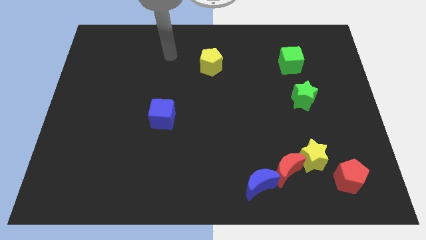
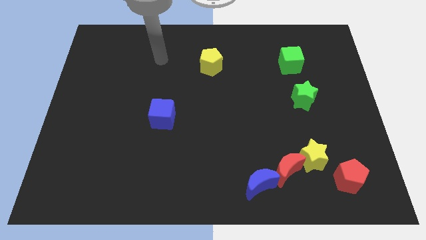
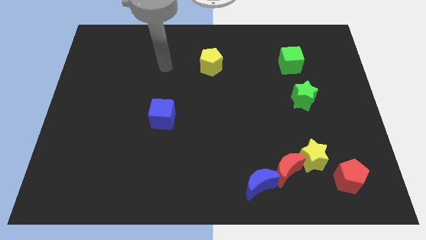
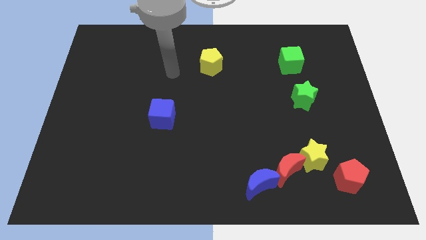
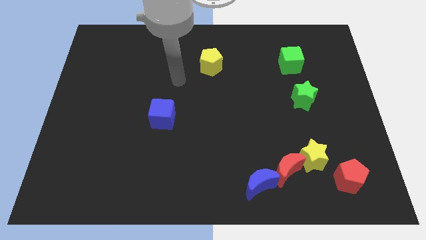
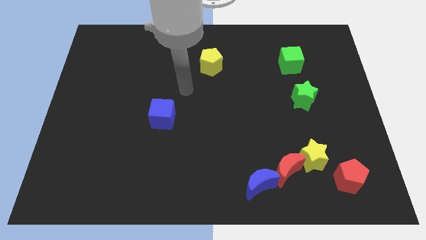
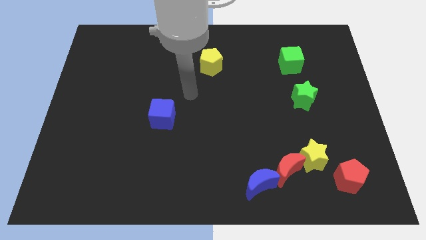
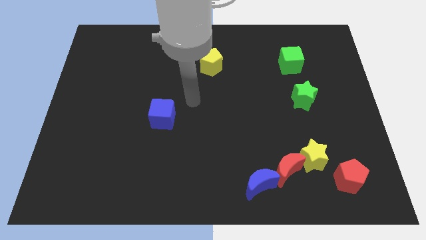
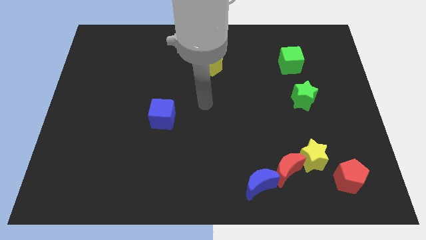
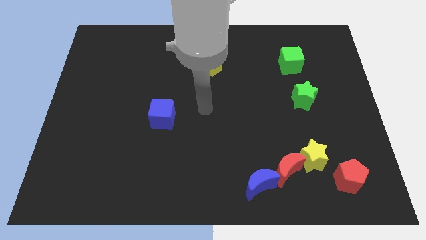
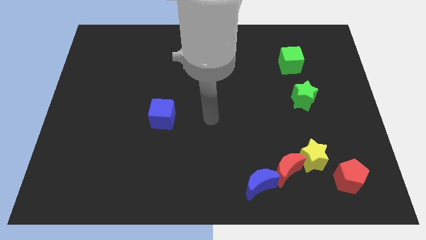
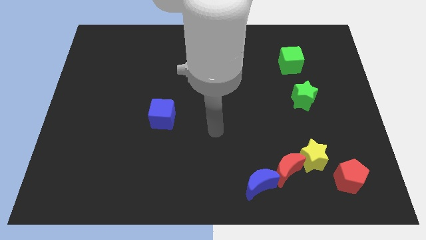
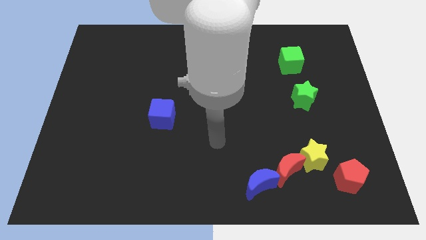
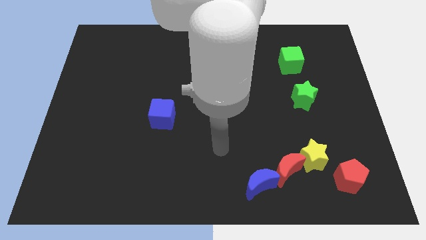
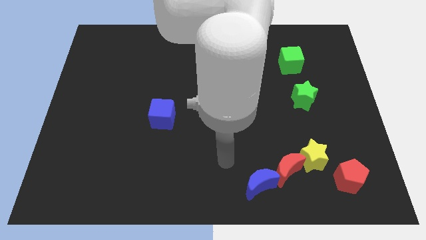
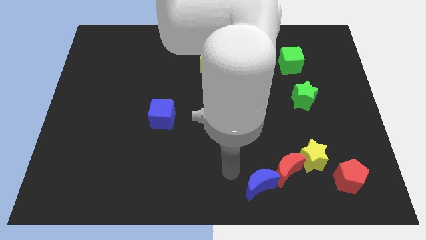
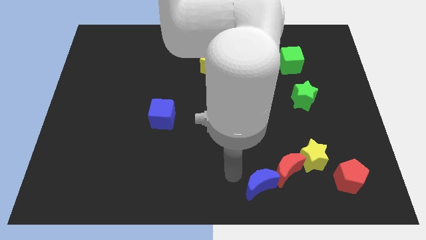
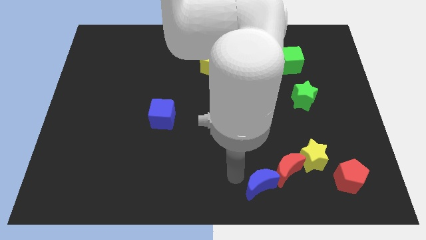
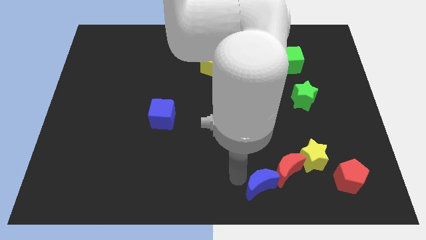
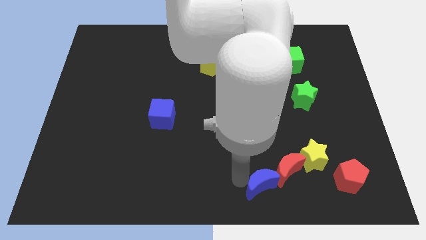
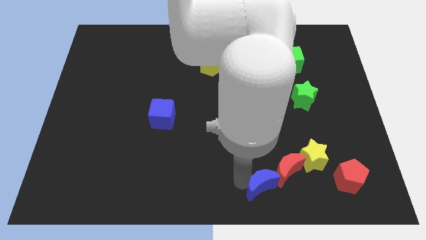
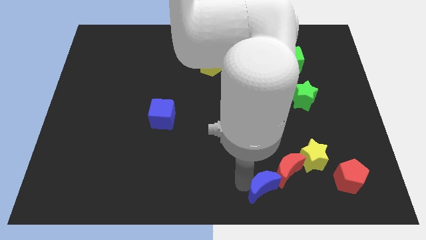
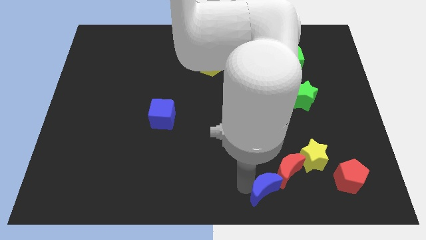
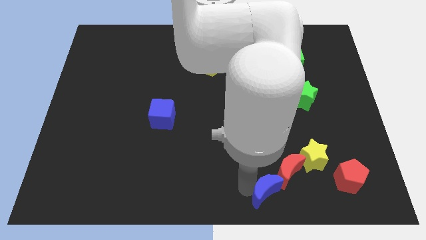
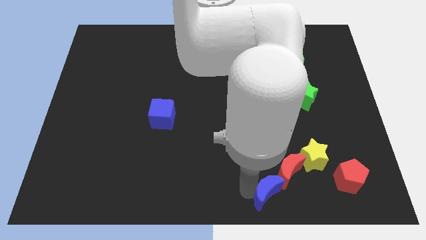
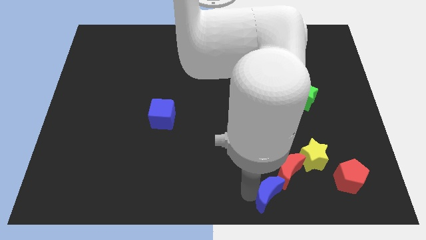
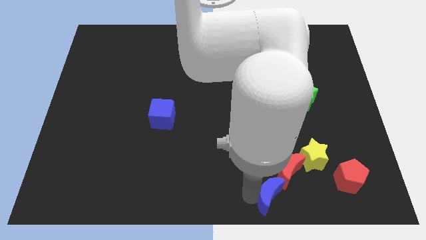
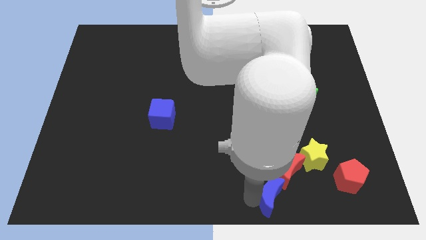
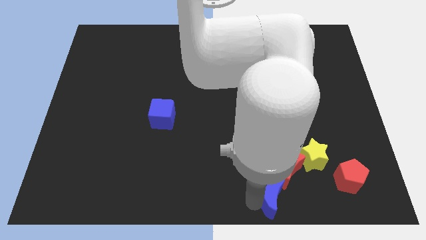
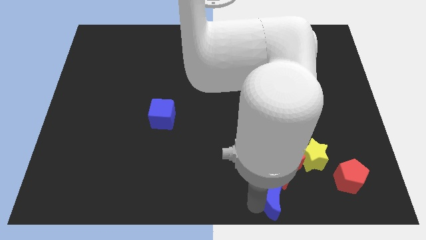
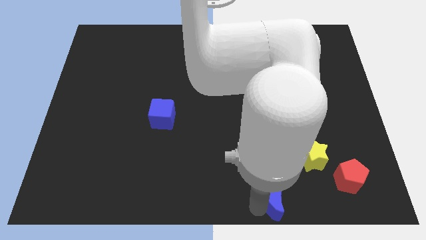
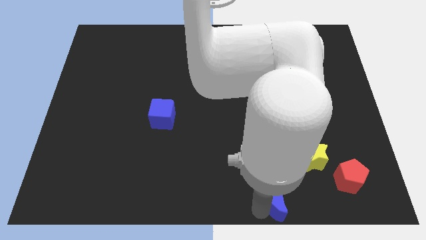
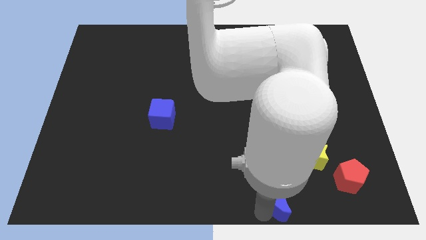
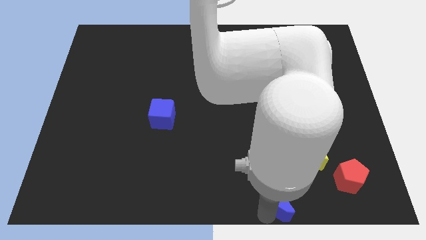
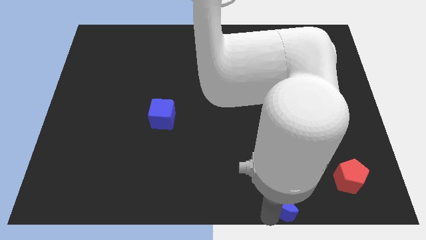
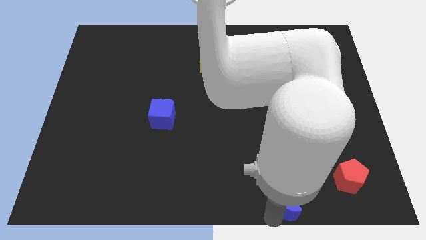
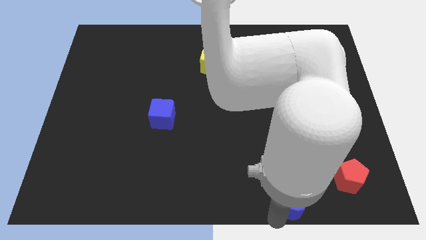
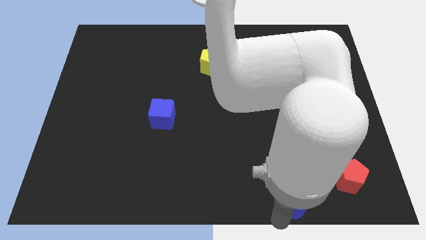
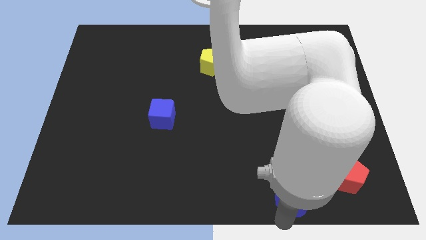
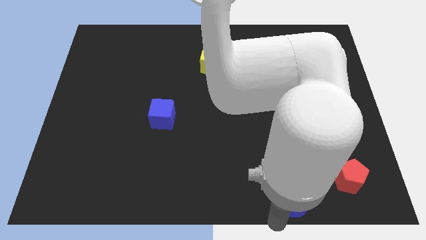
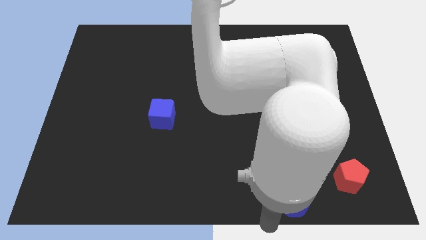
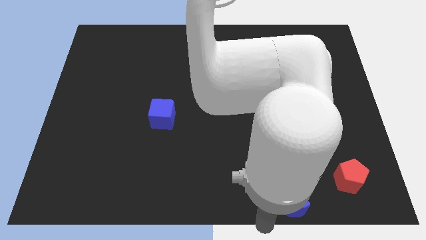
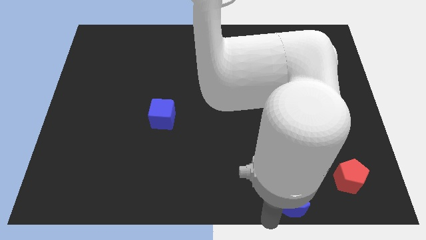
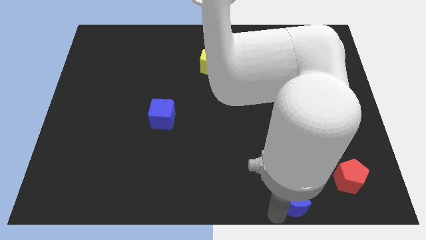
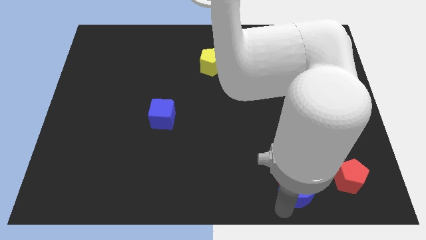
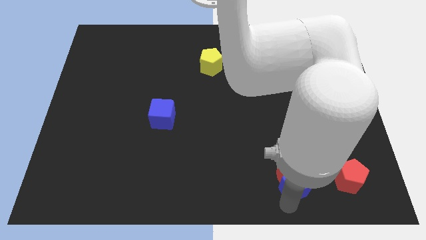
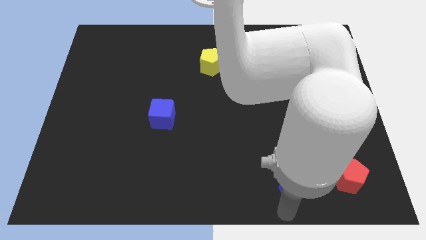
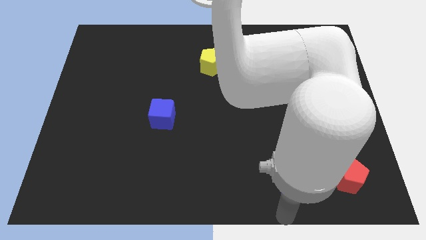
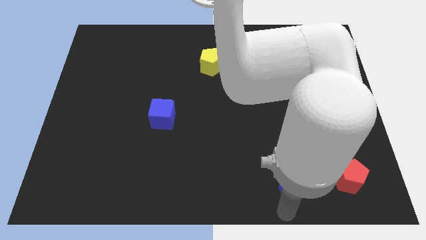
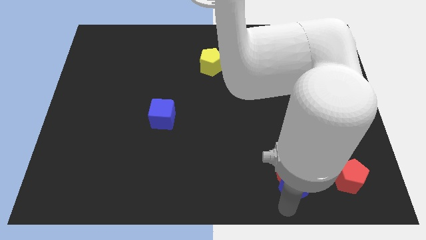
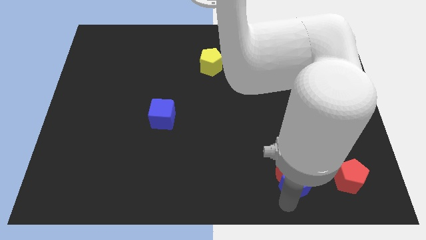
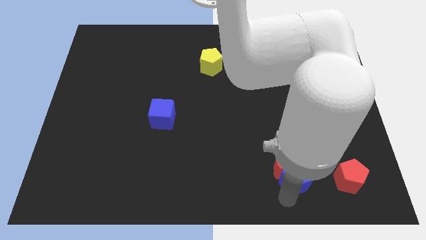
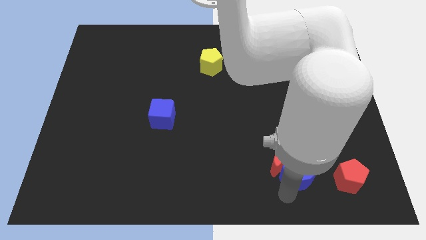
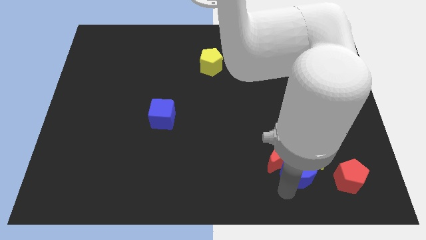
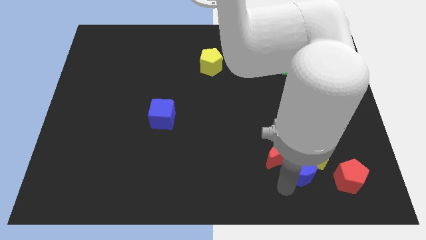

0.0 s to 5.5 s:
push the blue moon towards the yellow star
